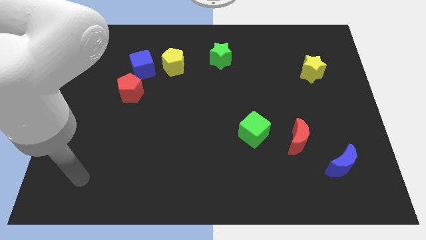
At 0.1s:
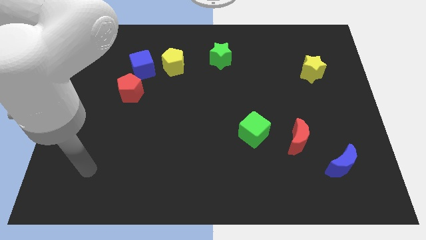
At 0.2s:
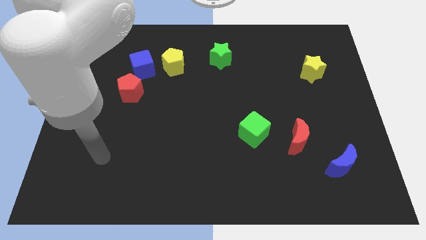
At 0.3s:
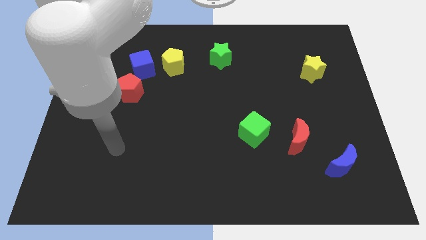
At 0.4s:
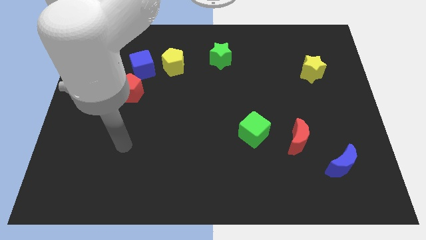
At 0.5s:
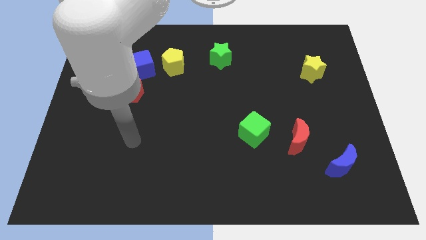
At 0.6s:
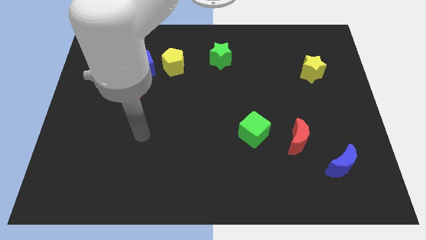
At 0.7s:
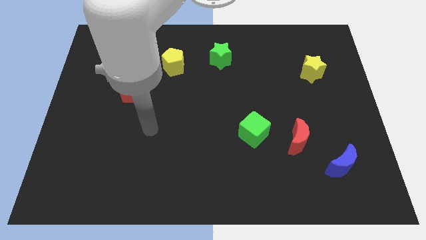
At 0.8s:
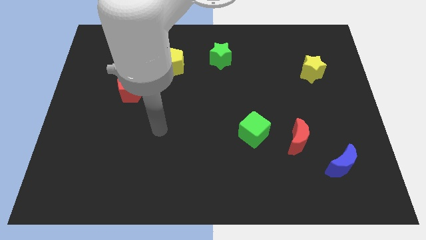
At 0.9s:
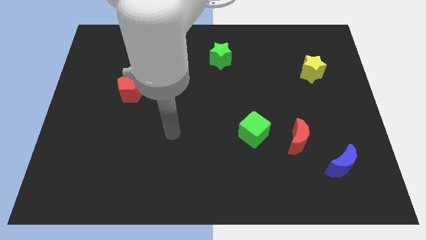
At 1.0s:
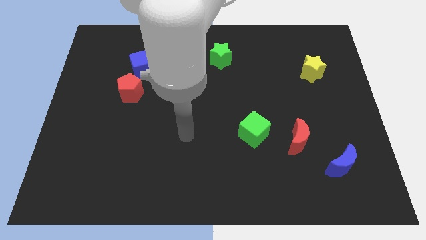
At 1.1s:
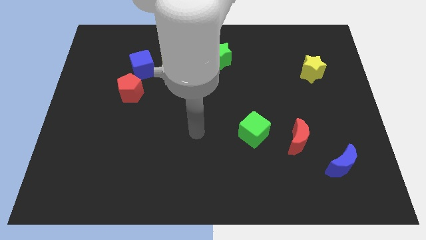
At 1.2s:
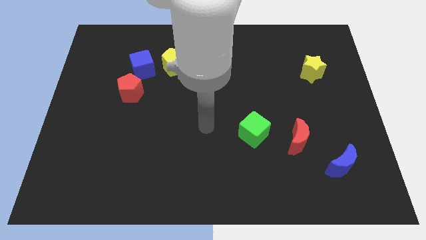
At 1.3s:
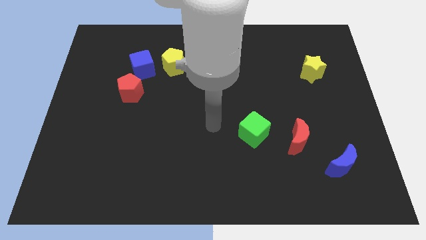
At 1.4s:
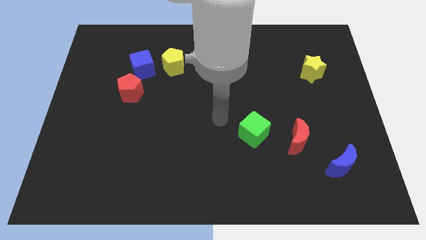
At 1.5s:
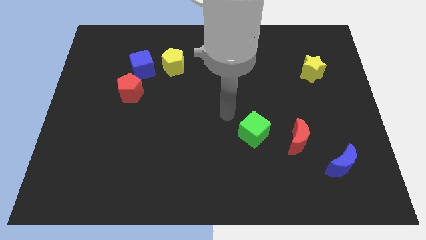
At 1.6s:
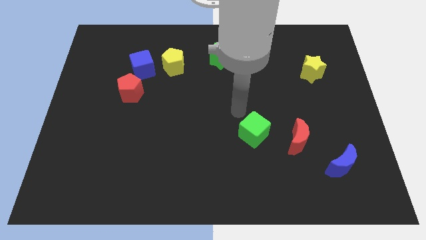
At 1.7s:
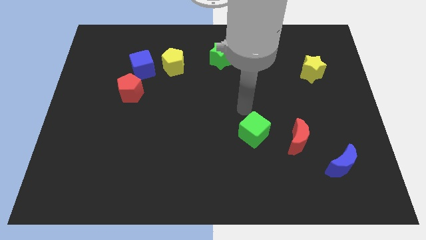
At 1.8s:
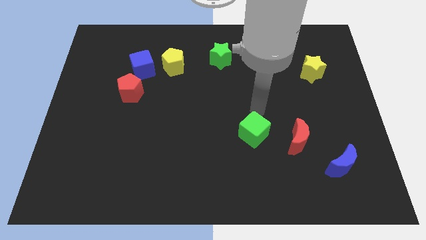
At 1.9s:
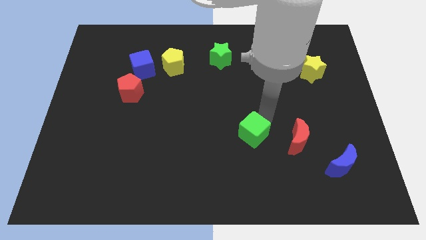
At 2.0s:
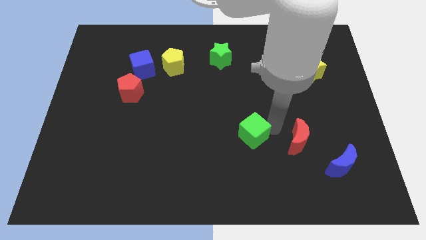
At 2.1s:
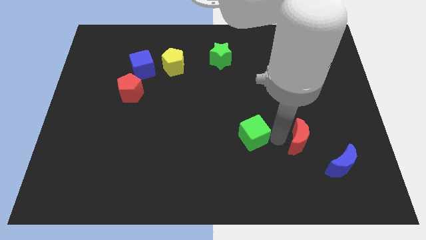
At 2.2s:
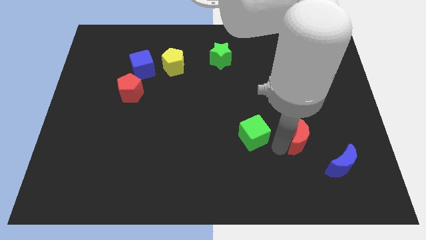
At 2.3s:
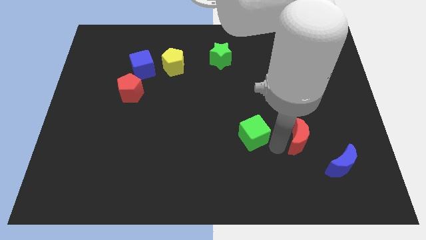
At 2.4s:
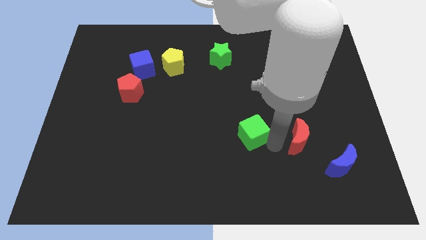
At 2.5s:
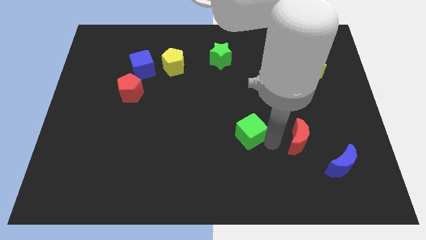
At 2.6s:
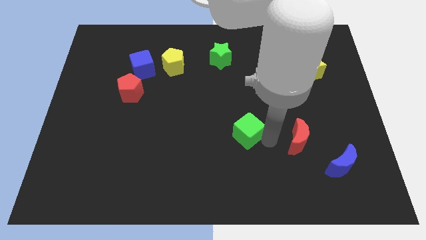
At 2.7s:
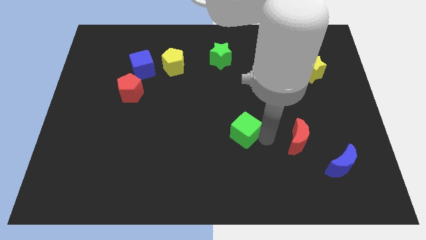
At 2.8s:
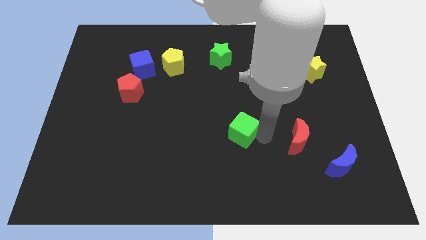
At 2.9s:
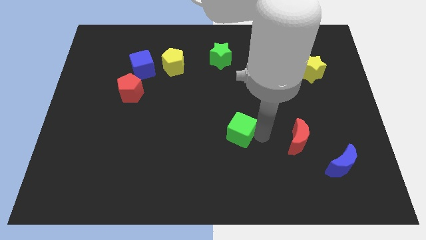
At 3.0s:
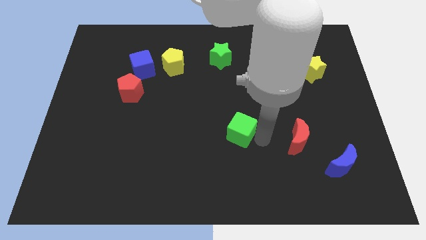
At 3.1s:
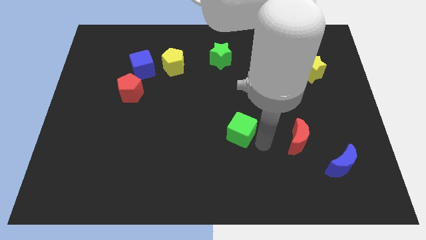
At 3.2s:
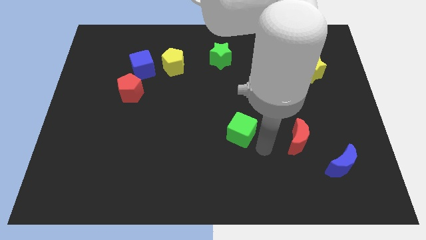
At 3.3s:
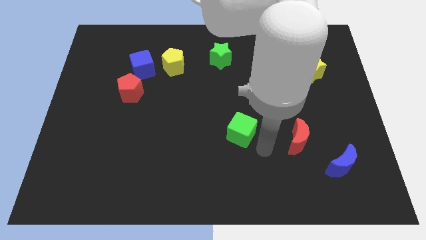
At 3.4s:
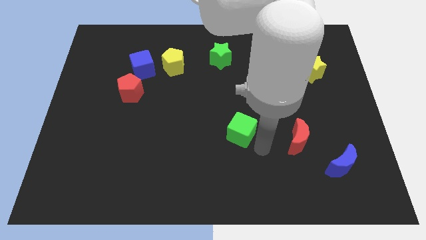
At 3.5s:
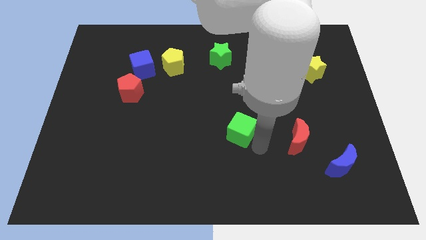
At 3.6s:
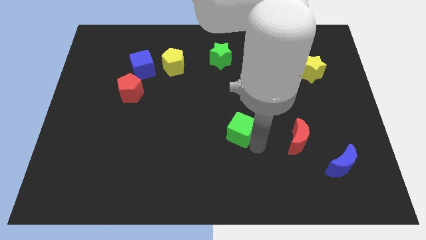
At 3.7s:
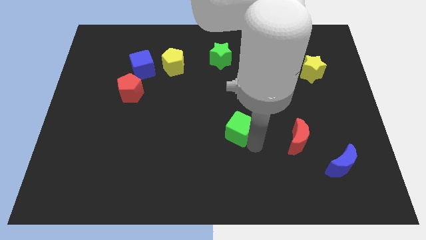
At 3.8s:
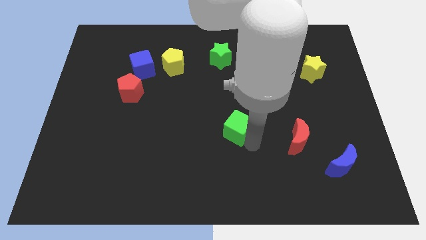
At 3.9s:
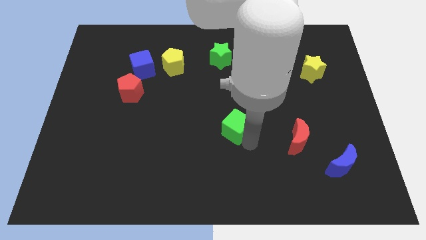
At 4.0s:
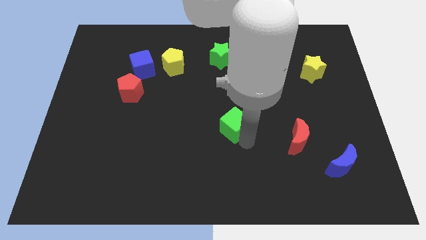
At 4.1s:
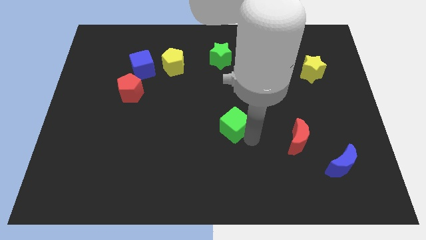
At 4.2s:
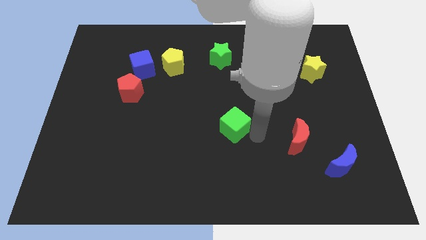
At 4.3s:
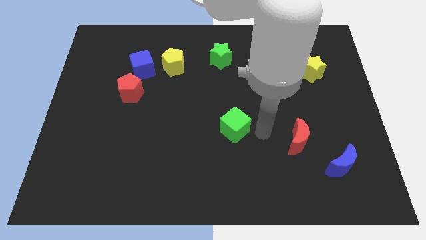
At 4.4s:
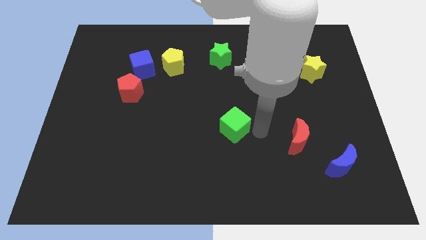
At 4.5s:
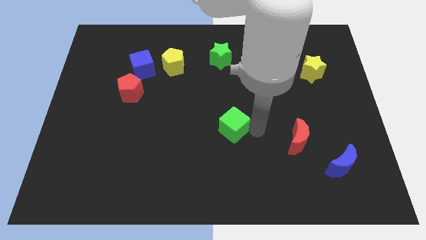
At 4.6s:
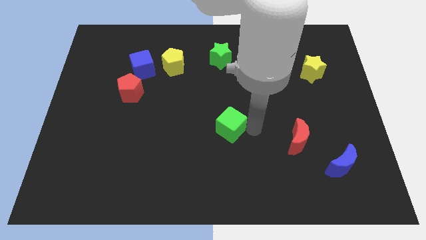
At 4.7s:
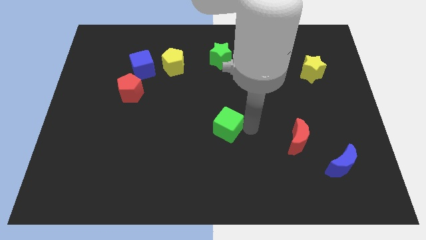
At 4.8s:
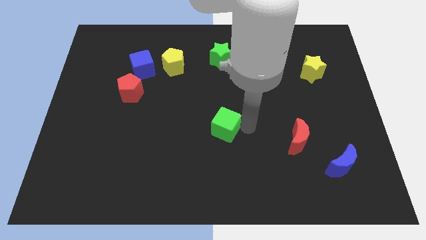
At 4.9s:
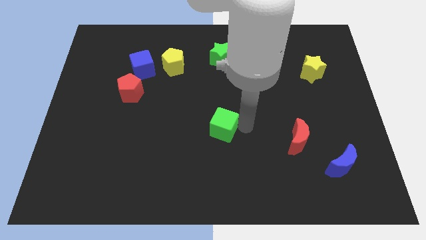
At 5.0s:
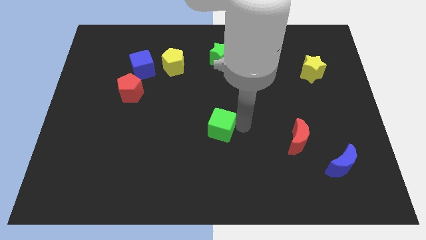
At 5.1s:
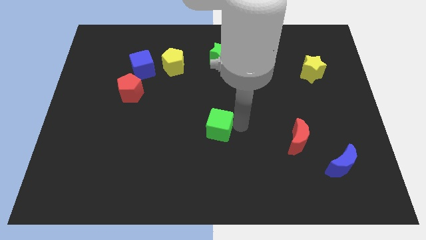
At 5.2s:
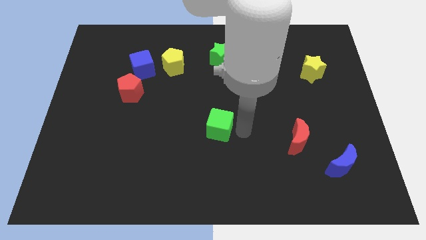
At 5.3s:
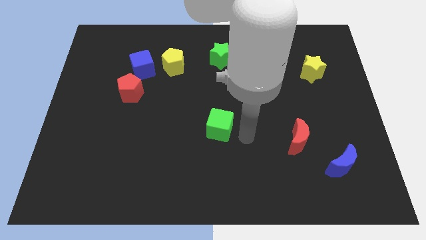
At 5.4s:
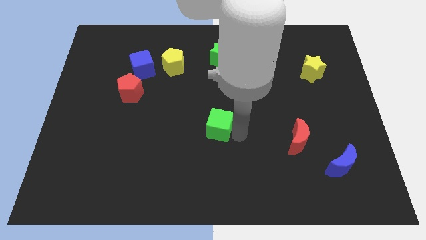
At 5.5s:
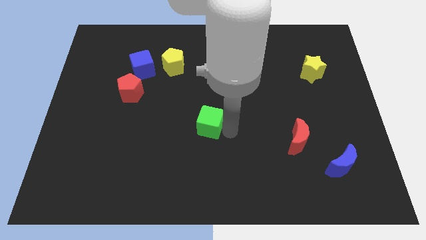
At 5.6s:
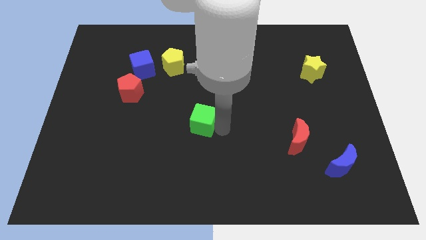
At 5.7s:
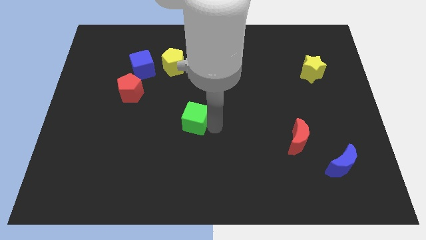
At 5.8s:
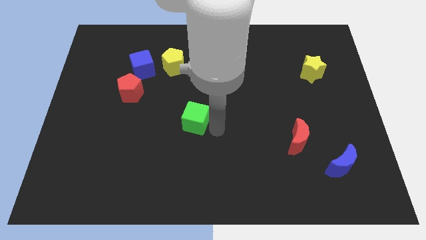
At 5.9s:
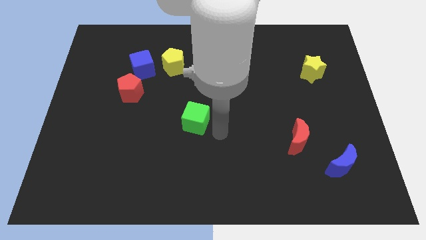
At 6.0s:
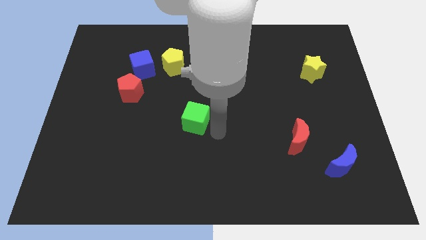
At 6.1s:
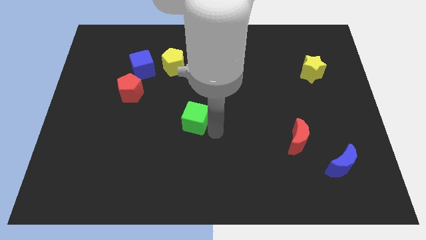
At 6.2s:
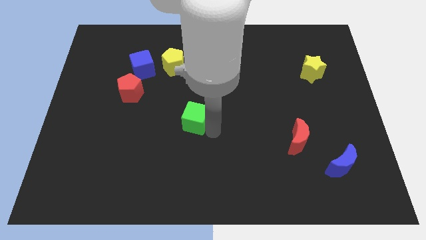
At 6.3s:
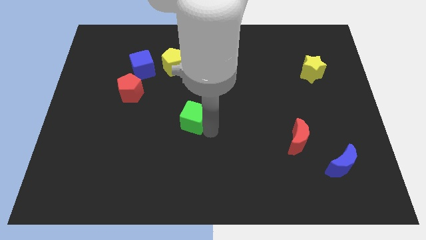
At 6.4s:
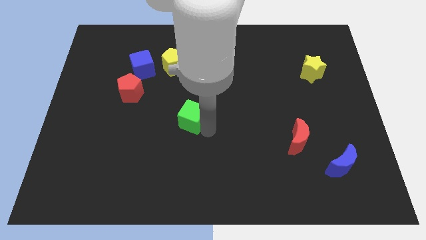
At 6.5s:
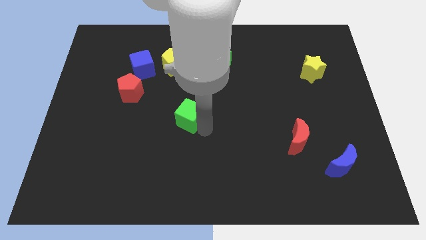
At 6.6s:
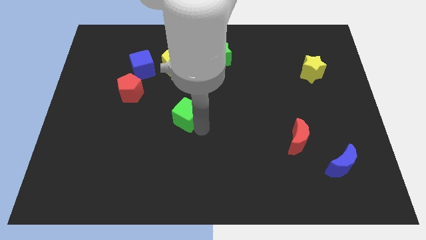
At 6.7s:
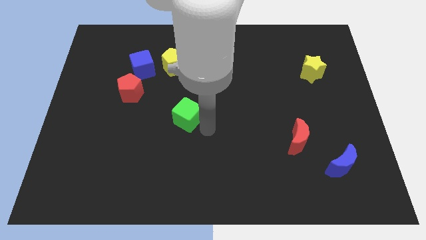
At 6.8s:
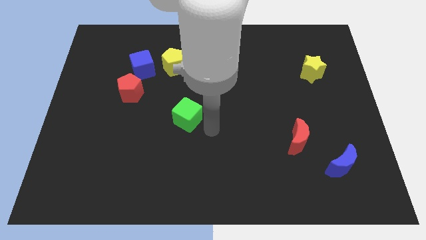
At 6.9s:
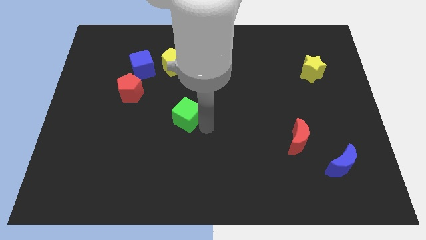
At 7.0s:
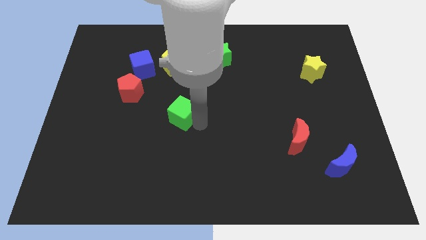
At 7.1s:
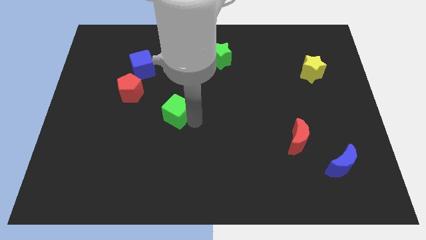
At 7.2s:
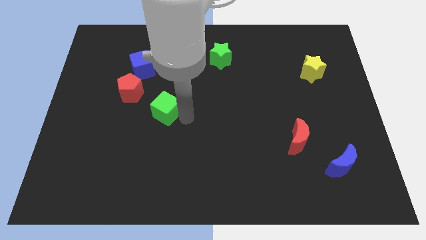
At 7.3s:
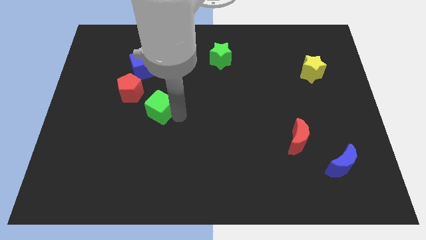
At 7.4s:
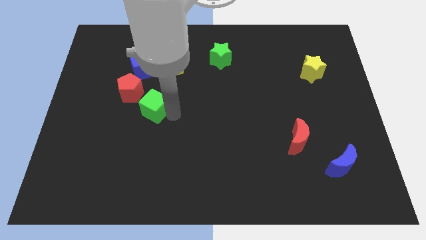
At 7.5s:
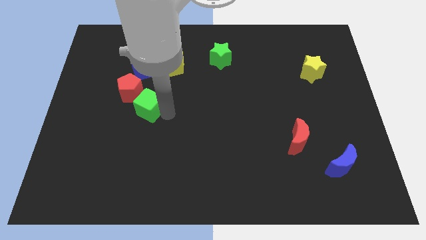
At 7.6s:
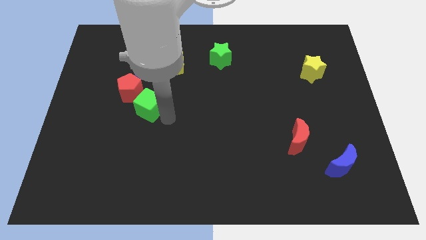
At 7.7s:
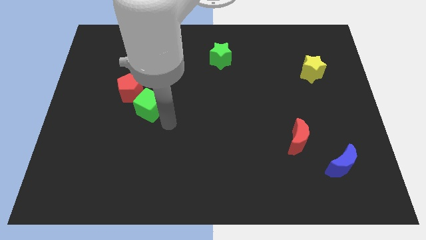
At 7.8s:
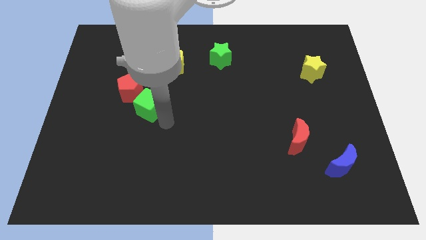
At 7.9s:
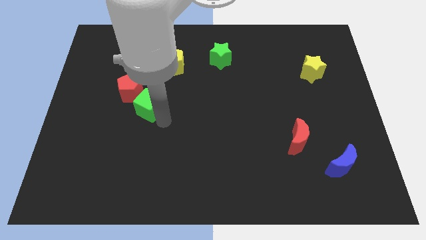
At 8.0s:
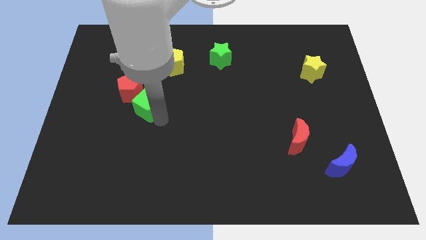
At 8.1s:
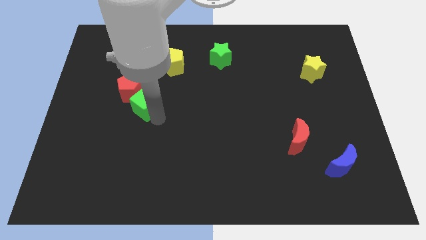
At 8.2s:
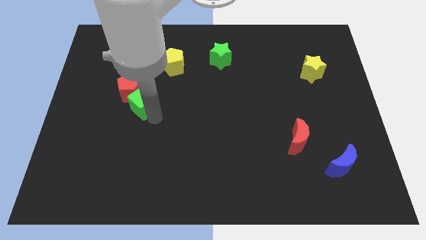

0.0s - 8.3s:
move the green cube close to the red pentagon

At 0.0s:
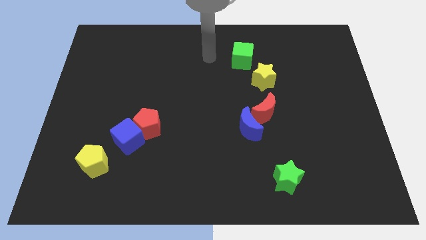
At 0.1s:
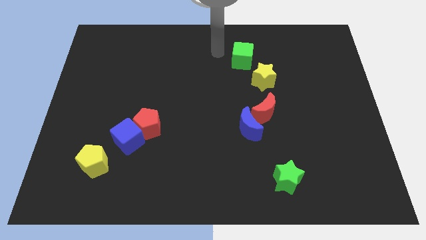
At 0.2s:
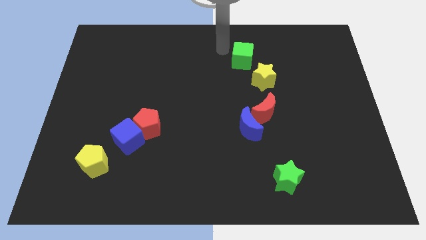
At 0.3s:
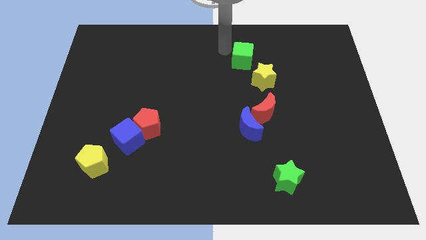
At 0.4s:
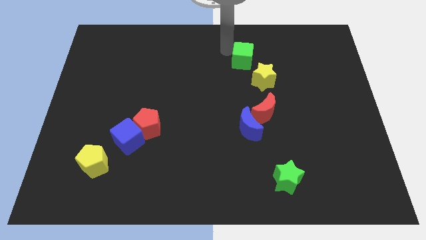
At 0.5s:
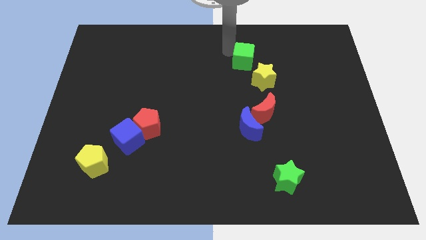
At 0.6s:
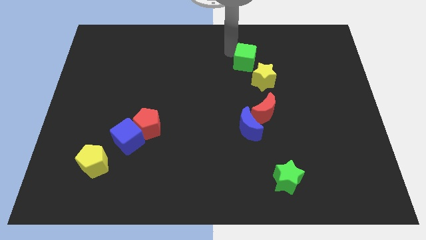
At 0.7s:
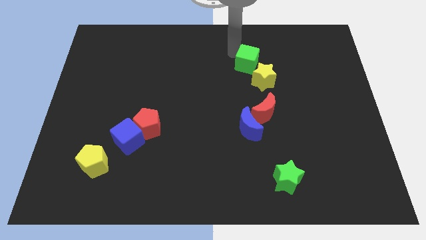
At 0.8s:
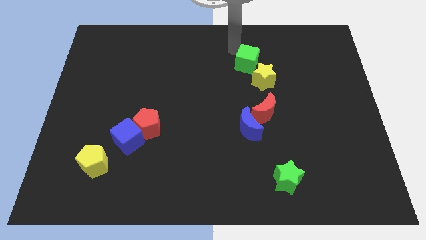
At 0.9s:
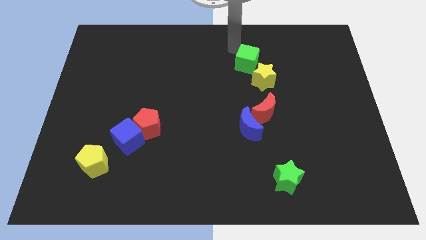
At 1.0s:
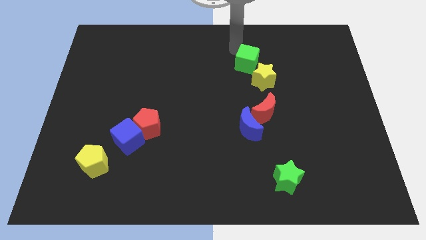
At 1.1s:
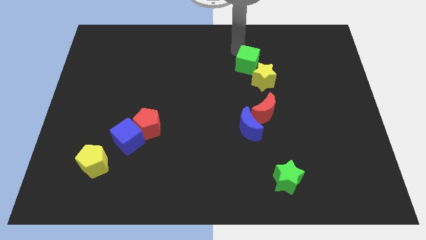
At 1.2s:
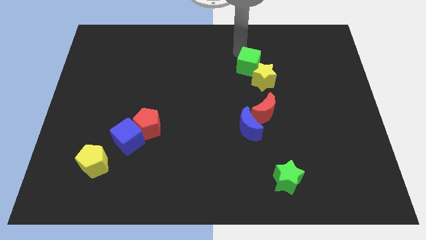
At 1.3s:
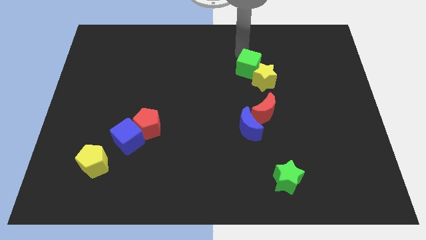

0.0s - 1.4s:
slide the green cube to the yellow star
